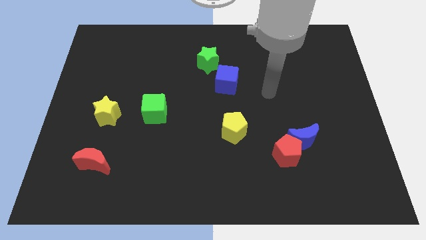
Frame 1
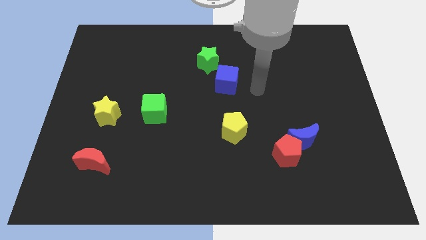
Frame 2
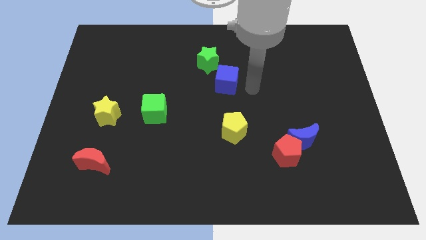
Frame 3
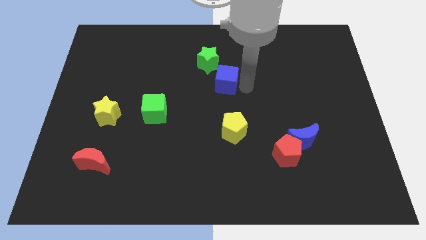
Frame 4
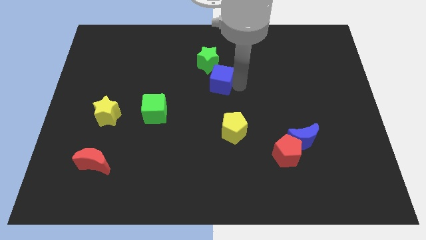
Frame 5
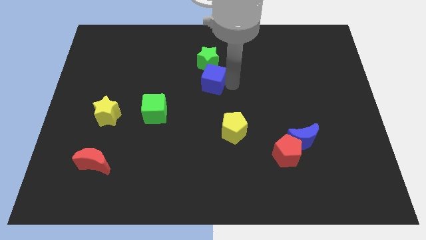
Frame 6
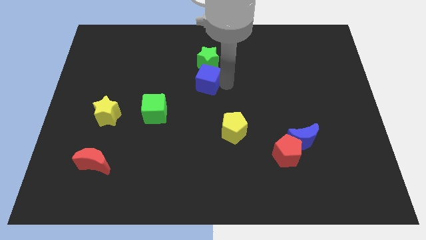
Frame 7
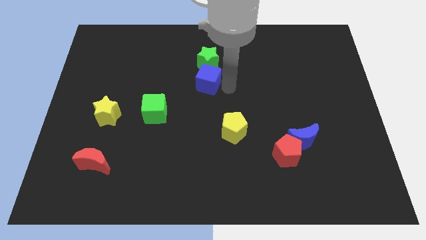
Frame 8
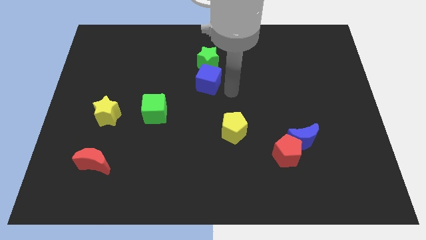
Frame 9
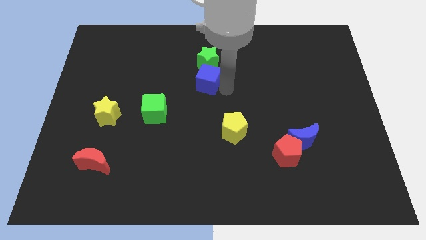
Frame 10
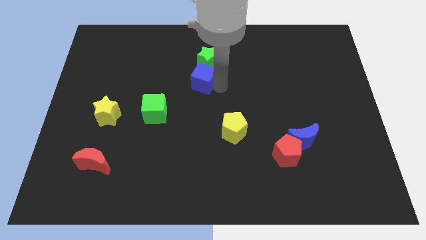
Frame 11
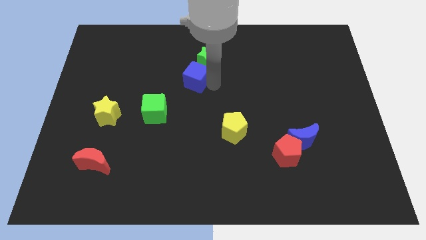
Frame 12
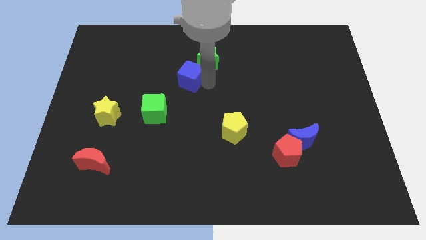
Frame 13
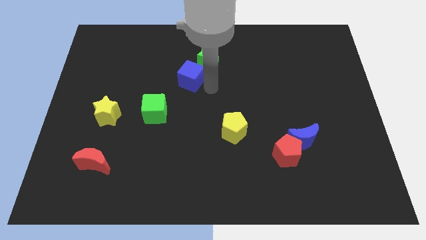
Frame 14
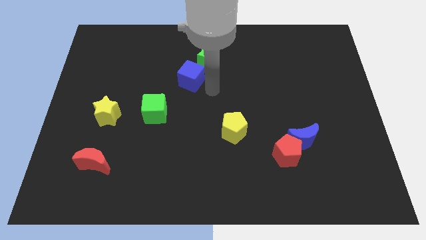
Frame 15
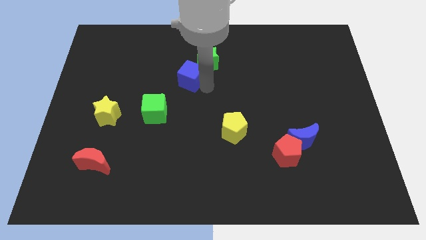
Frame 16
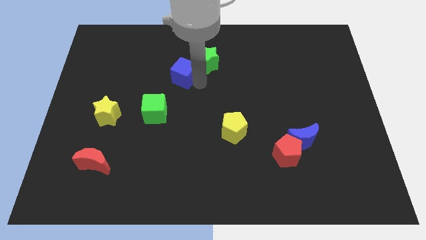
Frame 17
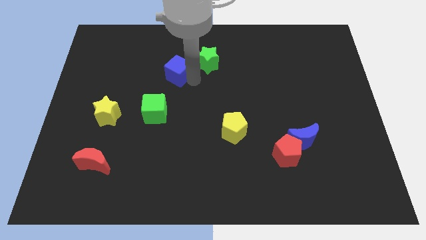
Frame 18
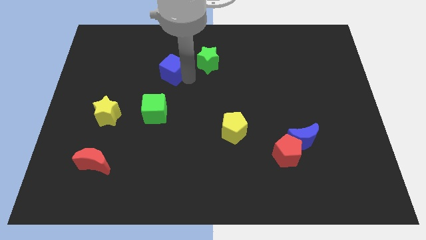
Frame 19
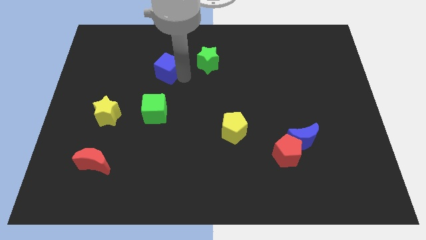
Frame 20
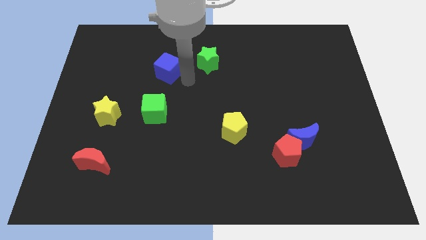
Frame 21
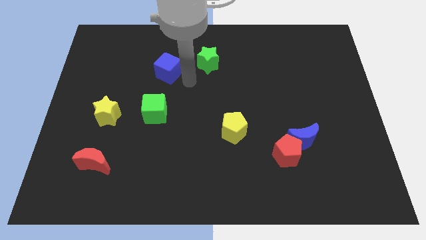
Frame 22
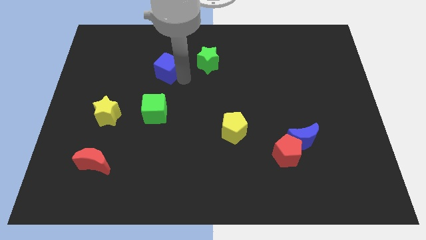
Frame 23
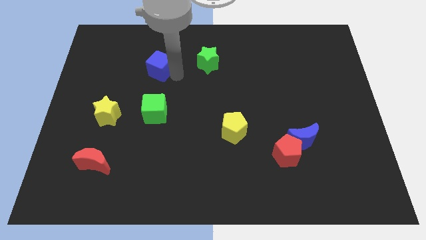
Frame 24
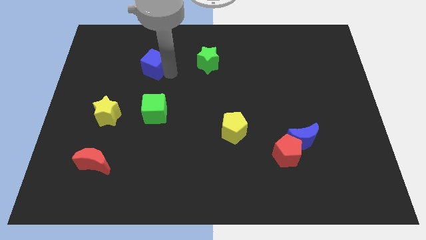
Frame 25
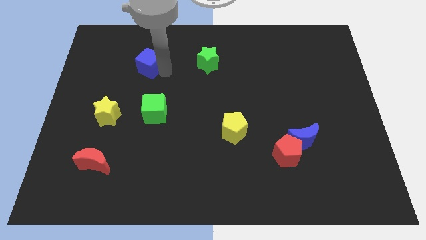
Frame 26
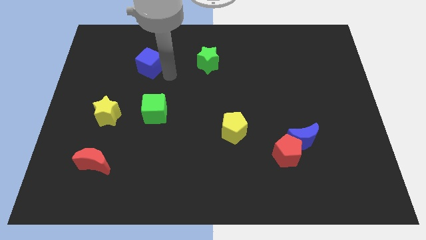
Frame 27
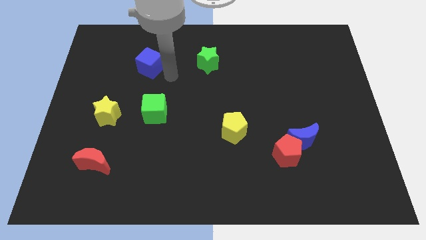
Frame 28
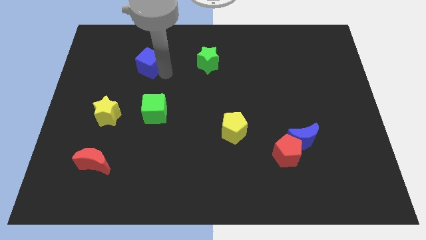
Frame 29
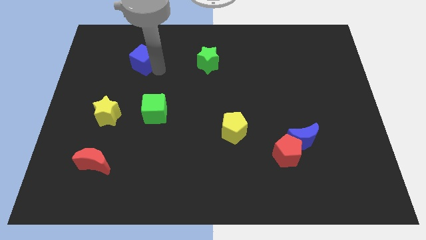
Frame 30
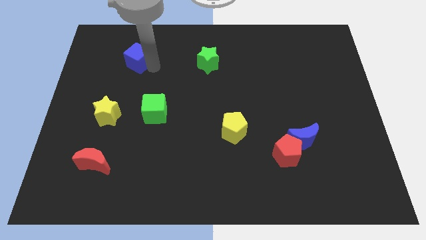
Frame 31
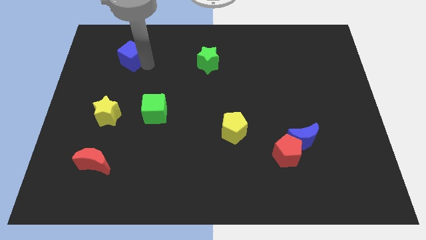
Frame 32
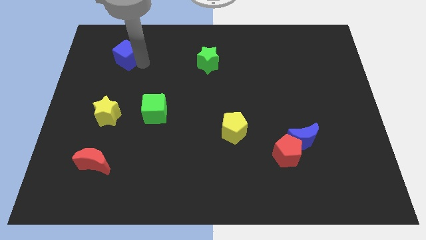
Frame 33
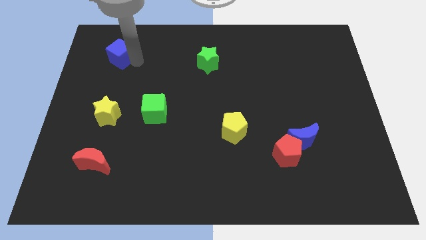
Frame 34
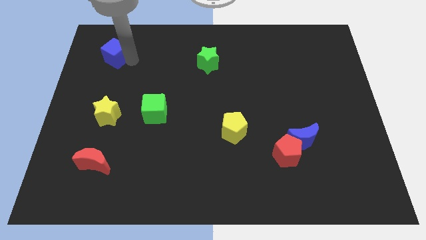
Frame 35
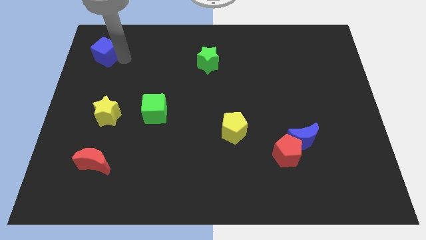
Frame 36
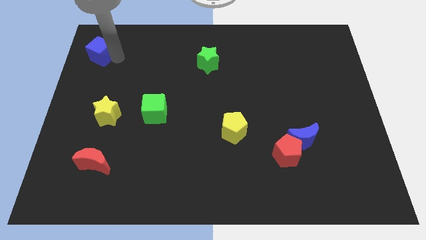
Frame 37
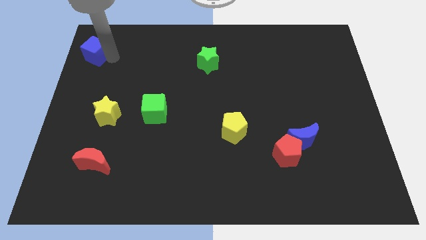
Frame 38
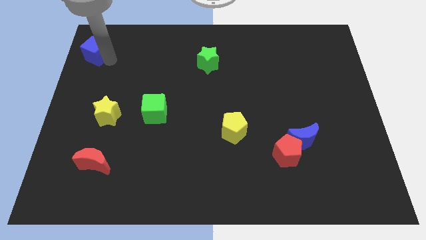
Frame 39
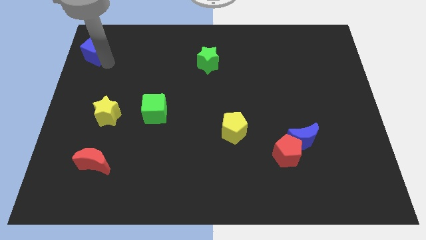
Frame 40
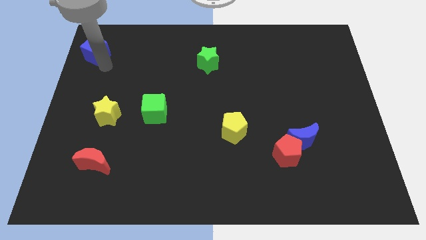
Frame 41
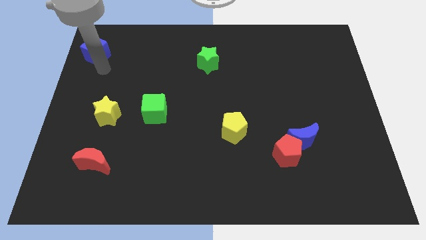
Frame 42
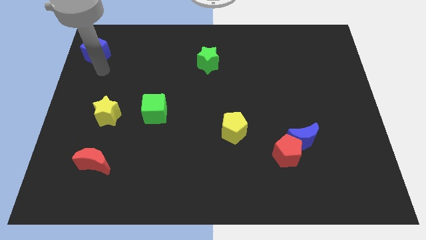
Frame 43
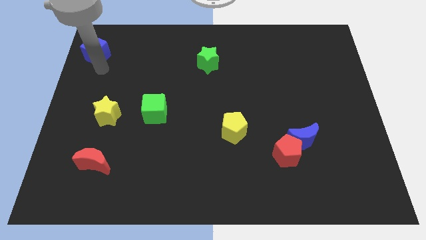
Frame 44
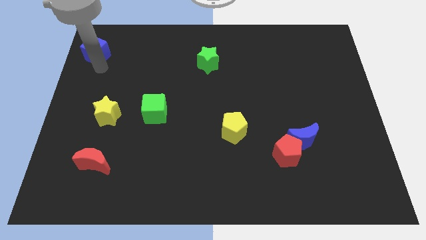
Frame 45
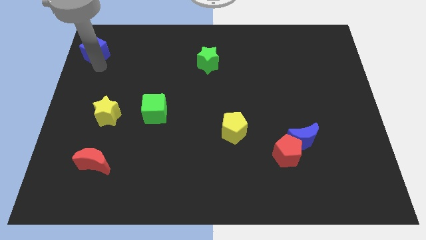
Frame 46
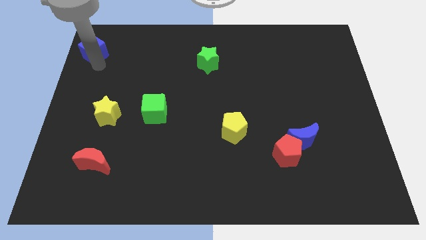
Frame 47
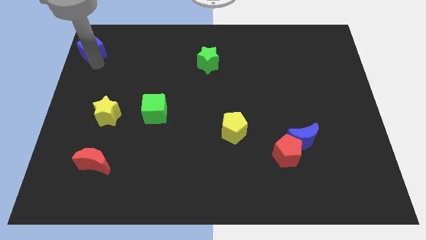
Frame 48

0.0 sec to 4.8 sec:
move the blue cube to the top left corner

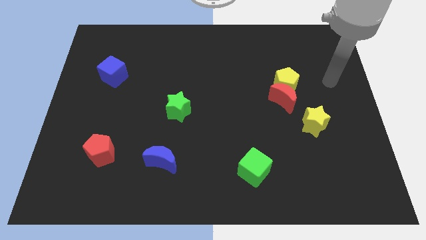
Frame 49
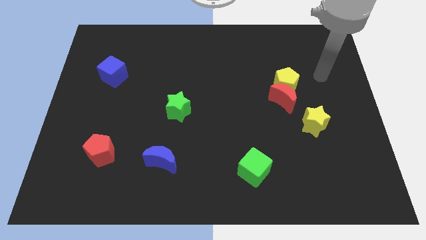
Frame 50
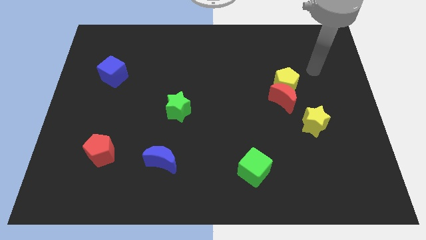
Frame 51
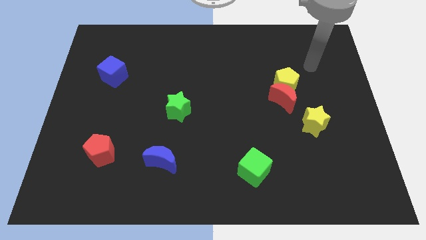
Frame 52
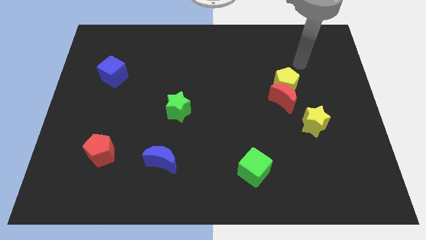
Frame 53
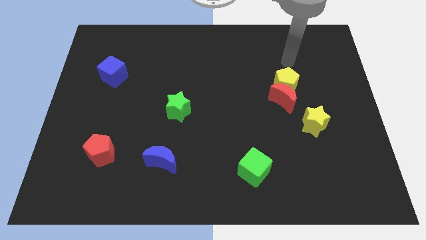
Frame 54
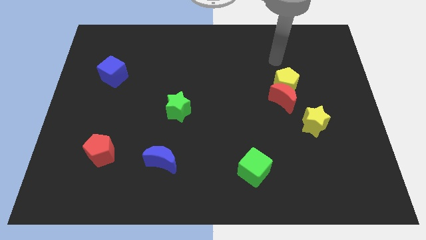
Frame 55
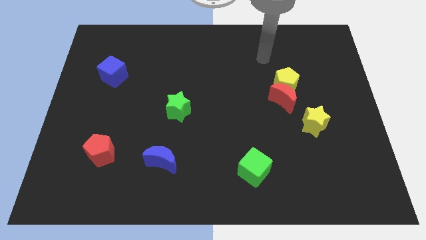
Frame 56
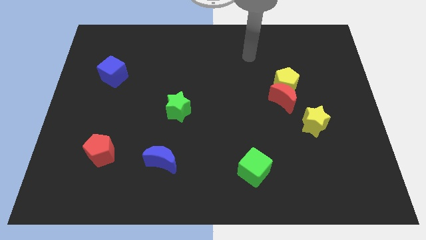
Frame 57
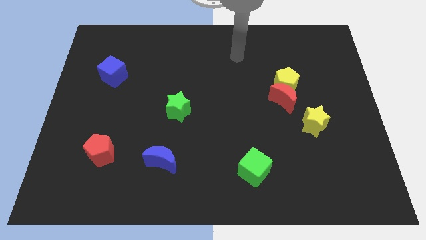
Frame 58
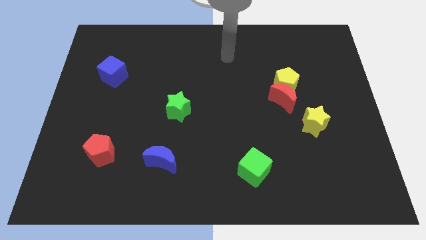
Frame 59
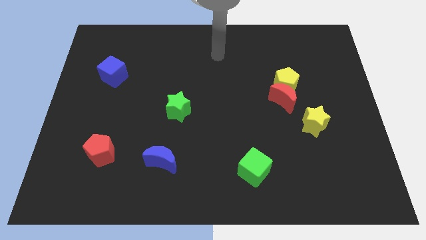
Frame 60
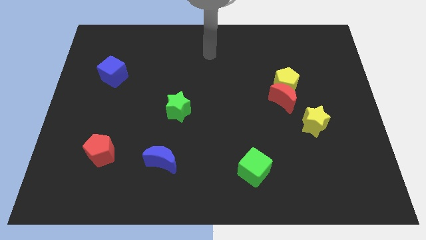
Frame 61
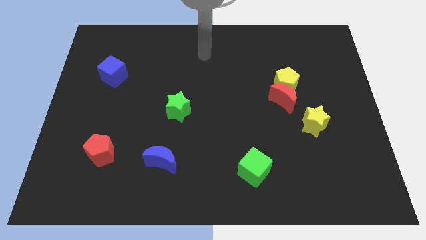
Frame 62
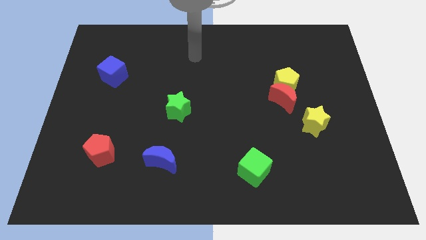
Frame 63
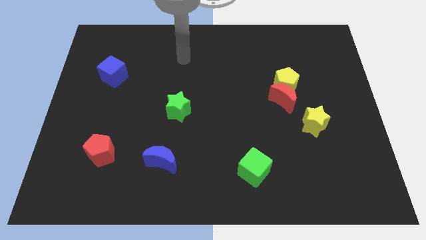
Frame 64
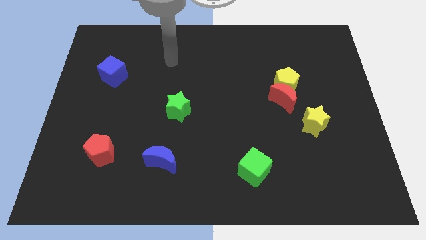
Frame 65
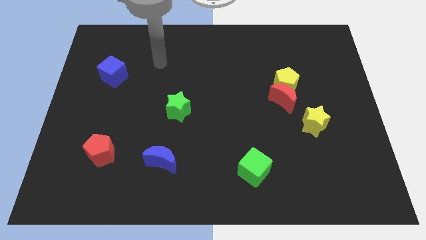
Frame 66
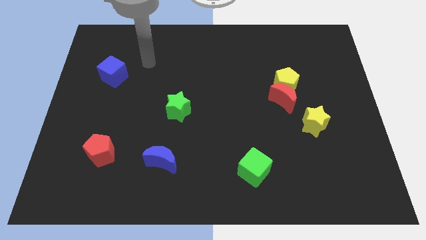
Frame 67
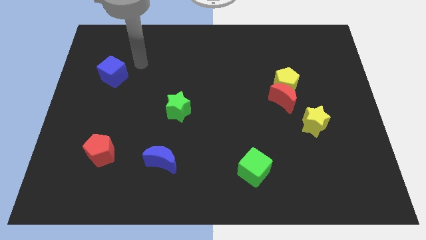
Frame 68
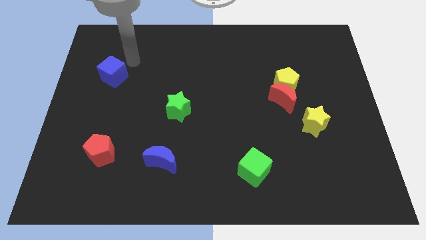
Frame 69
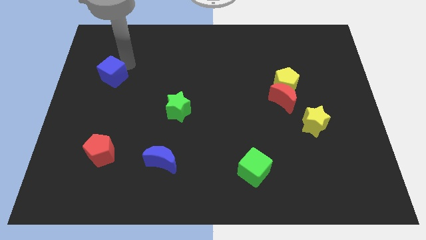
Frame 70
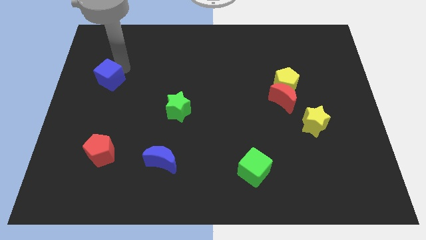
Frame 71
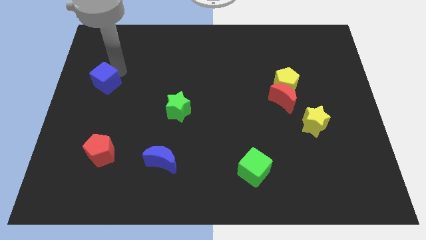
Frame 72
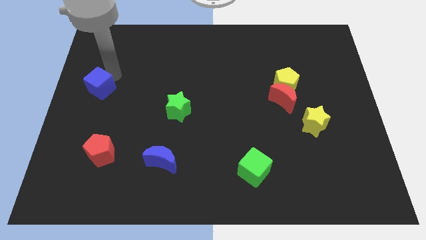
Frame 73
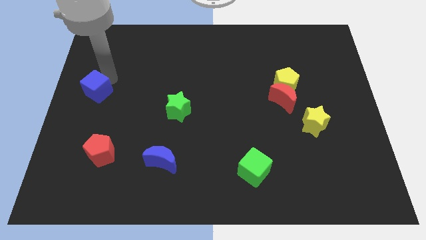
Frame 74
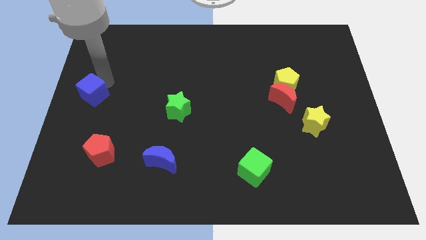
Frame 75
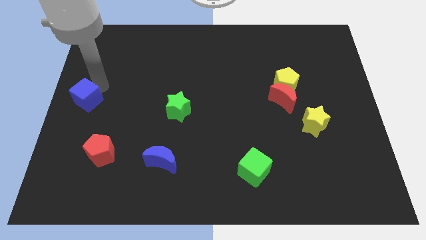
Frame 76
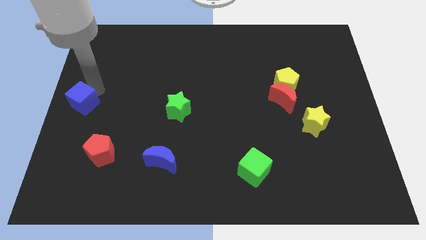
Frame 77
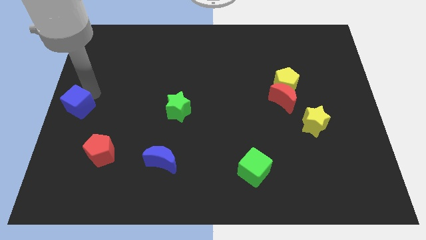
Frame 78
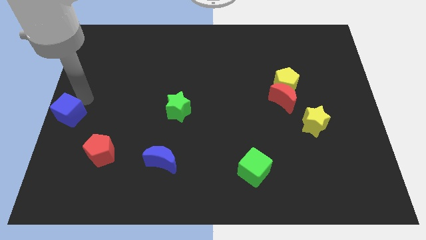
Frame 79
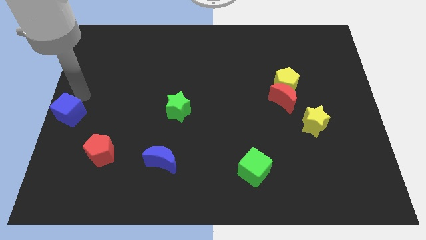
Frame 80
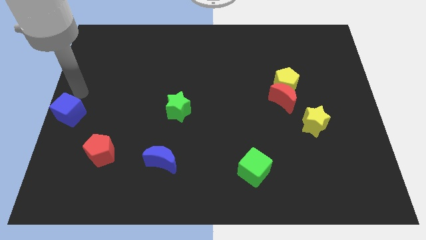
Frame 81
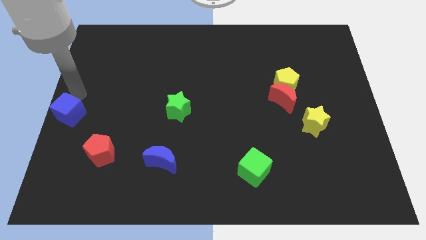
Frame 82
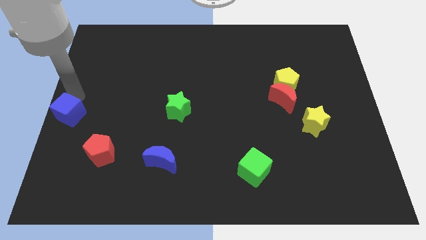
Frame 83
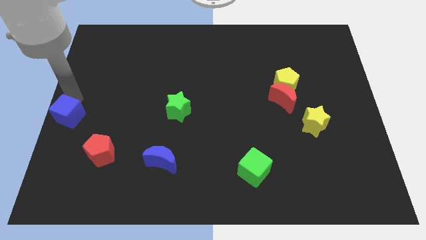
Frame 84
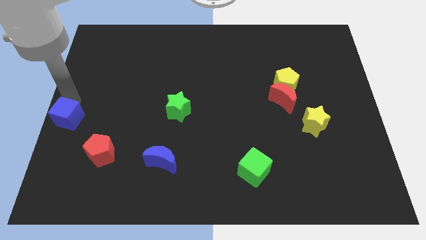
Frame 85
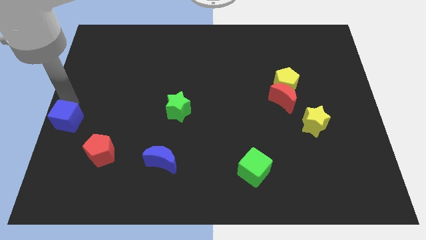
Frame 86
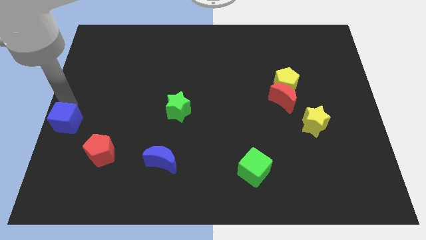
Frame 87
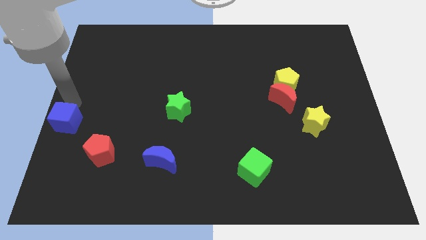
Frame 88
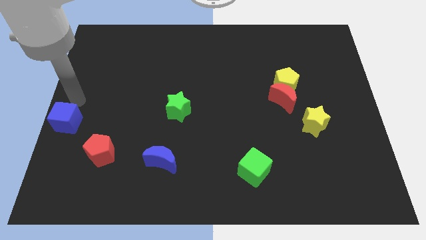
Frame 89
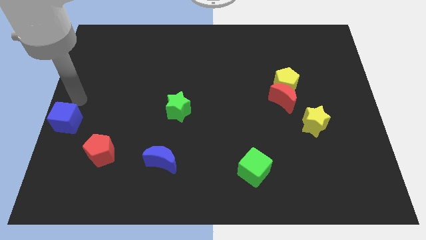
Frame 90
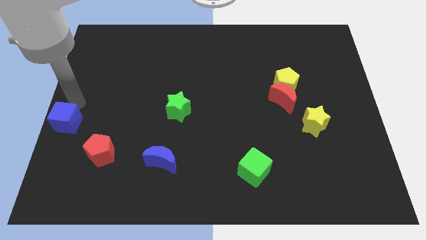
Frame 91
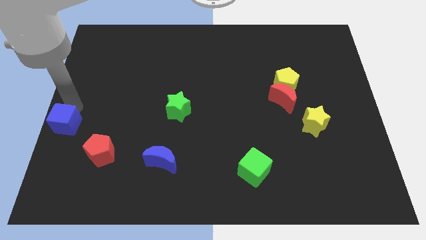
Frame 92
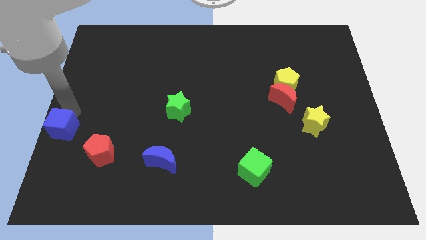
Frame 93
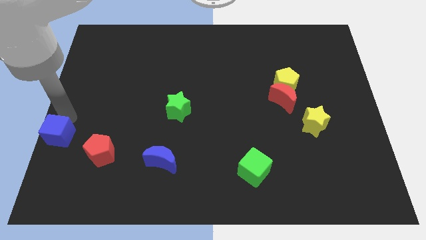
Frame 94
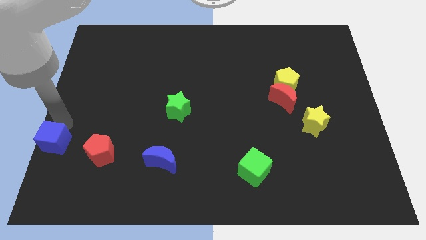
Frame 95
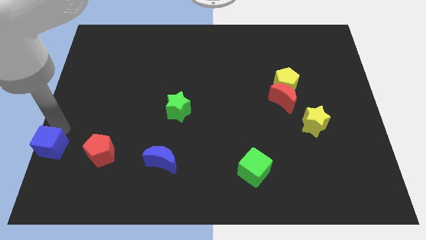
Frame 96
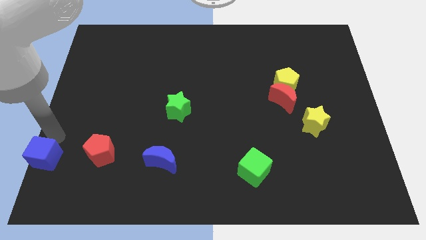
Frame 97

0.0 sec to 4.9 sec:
slide the blue cube to the bottom left corner
